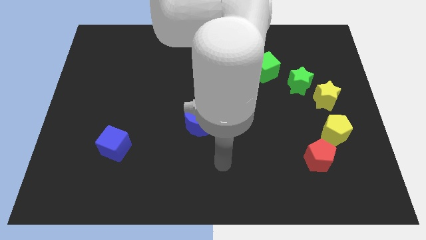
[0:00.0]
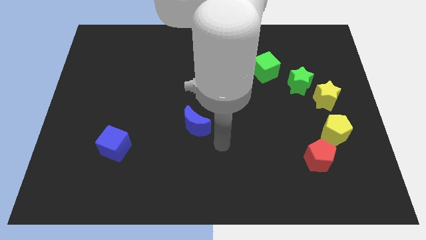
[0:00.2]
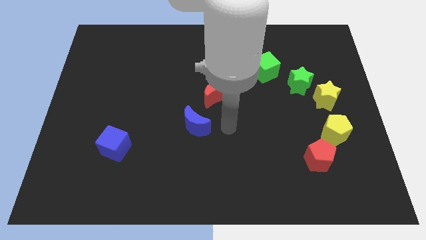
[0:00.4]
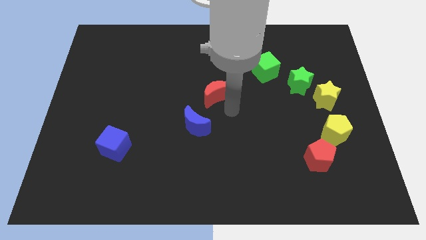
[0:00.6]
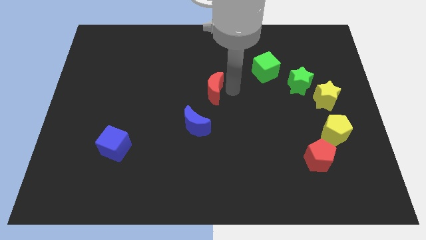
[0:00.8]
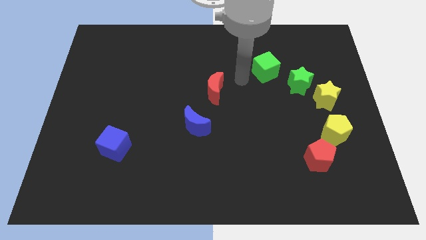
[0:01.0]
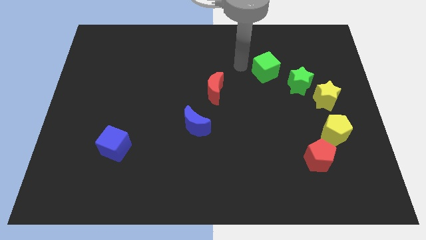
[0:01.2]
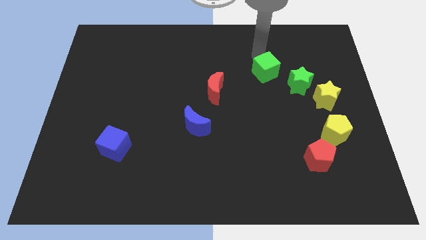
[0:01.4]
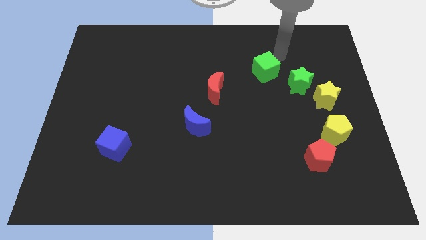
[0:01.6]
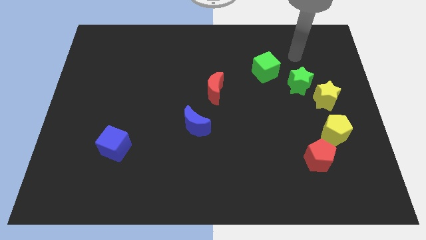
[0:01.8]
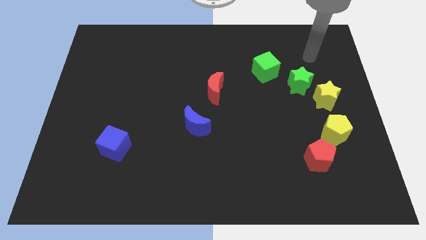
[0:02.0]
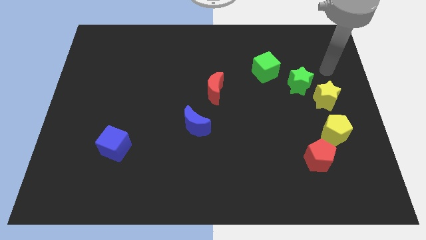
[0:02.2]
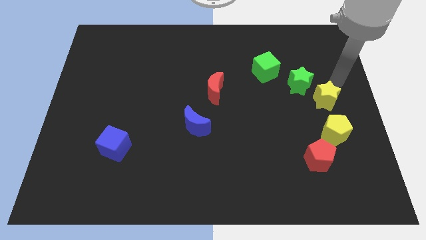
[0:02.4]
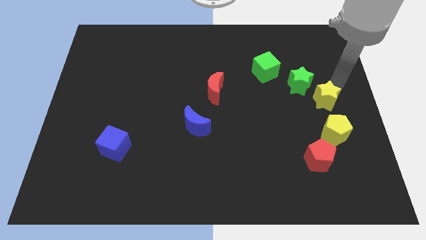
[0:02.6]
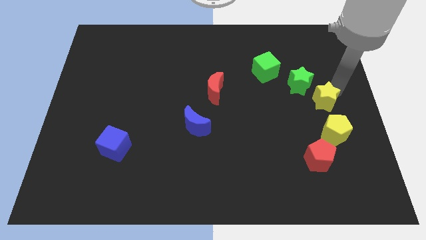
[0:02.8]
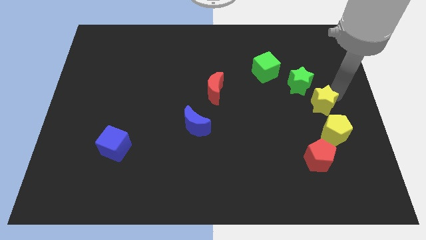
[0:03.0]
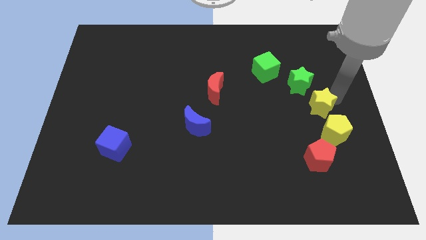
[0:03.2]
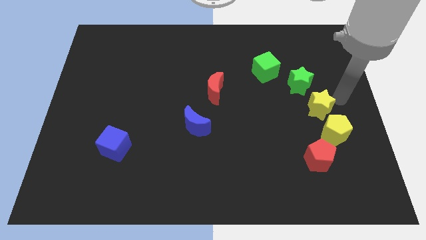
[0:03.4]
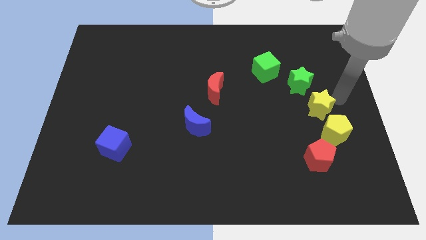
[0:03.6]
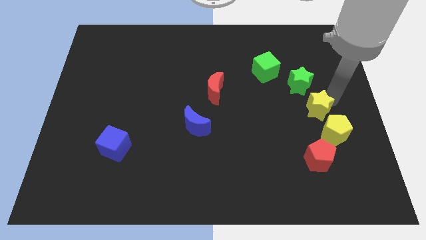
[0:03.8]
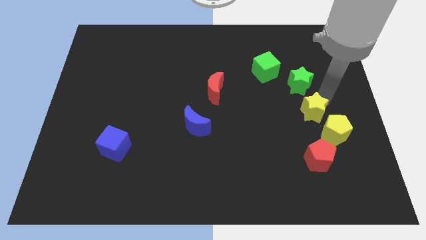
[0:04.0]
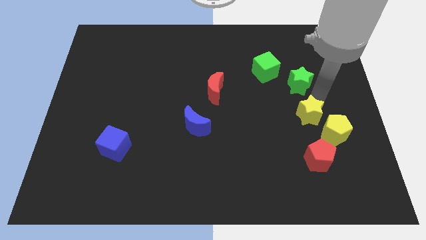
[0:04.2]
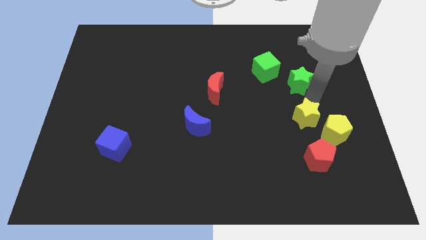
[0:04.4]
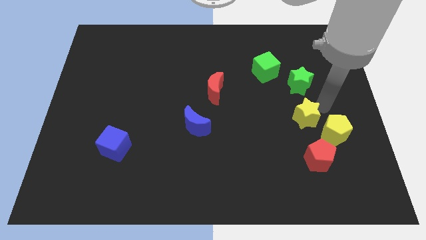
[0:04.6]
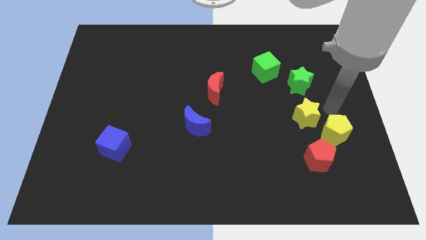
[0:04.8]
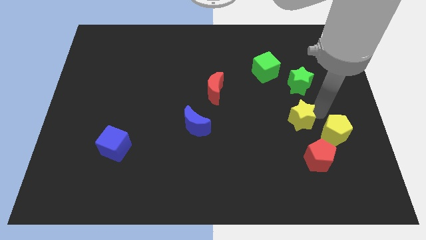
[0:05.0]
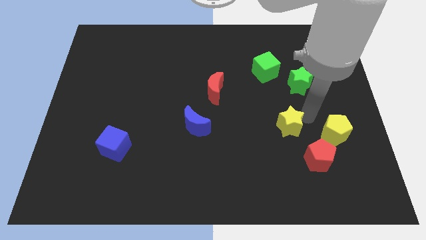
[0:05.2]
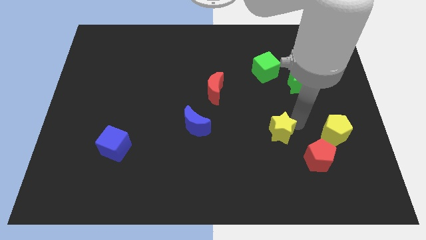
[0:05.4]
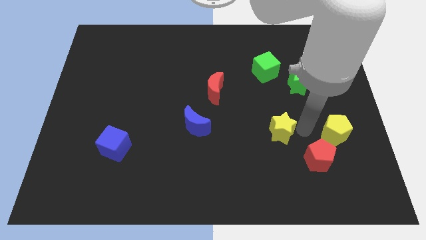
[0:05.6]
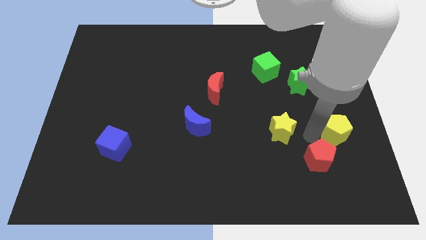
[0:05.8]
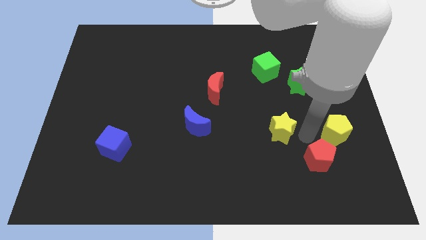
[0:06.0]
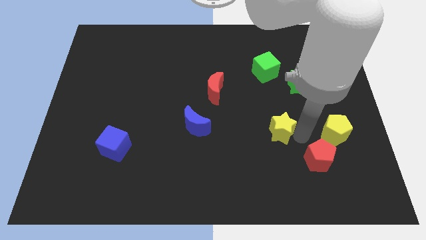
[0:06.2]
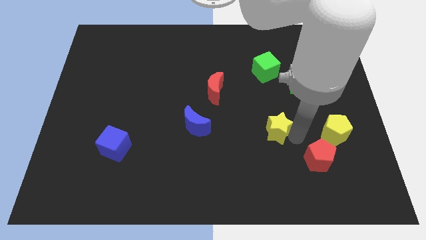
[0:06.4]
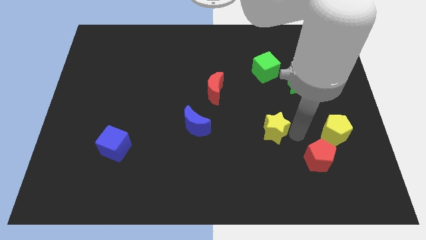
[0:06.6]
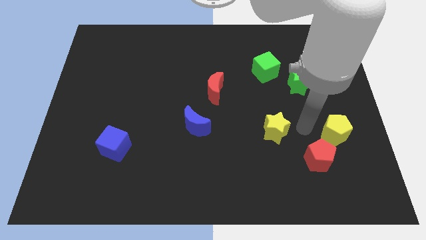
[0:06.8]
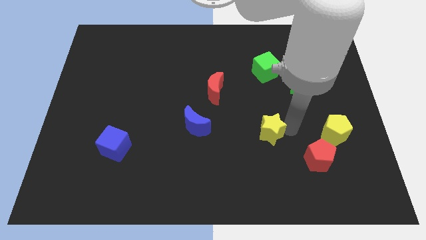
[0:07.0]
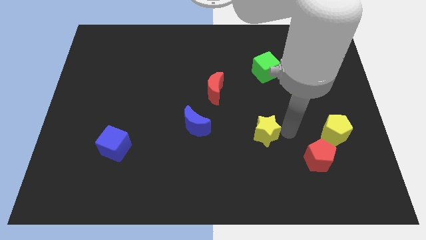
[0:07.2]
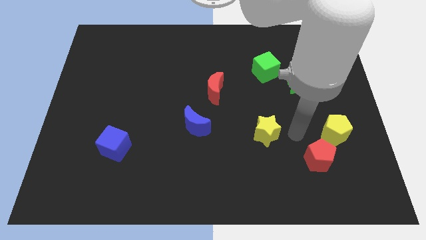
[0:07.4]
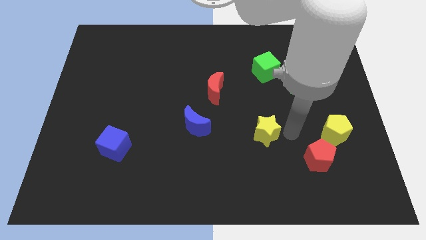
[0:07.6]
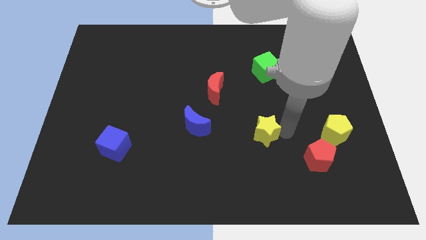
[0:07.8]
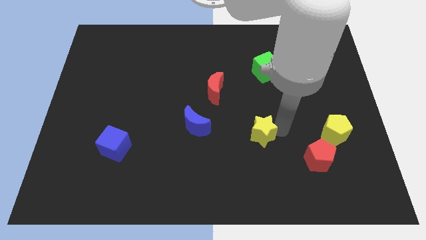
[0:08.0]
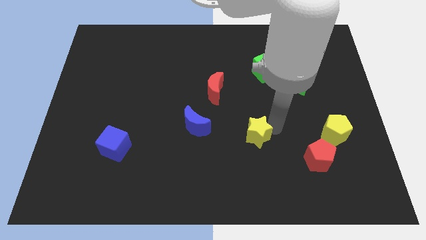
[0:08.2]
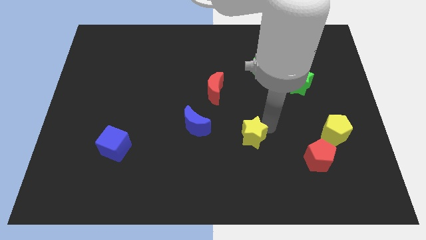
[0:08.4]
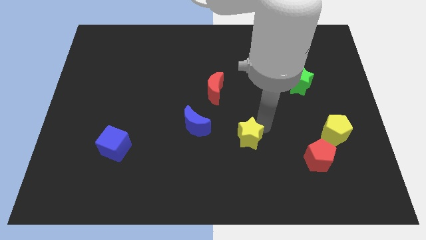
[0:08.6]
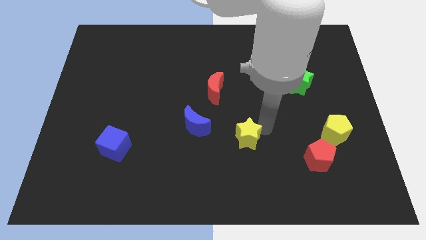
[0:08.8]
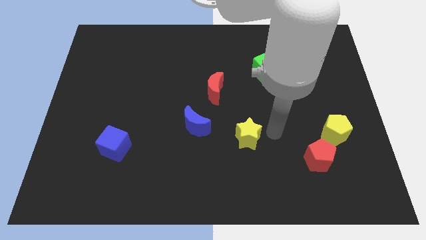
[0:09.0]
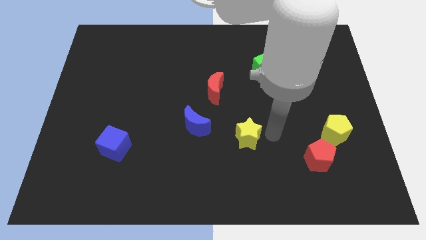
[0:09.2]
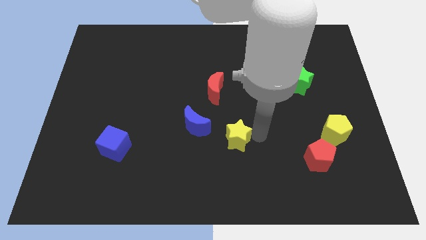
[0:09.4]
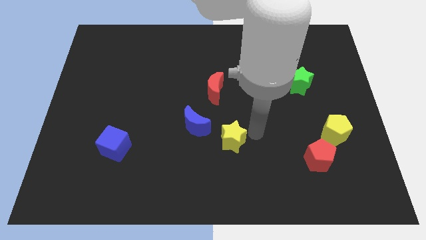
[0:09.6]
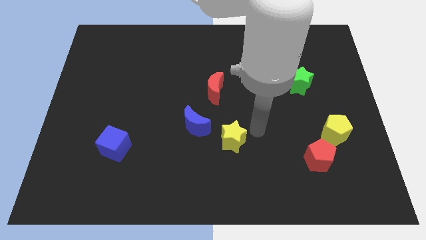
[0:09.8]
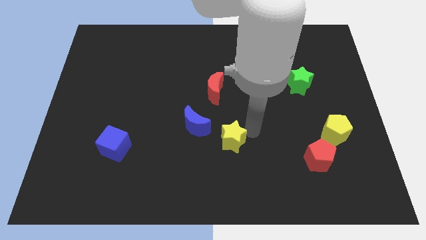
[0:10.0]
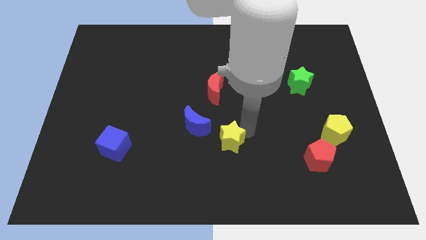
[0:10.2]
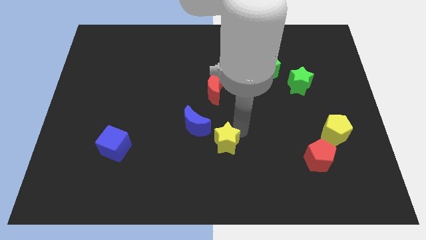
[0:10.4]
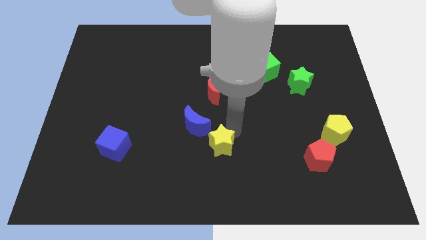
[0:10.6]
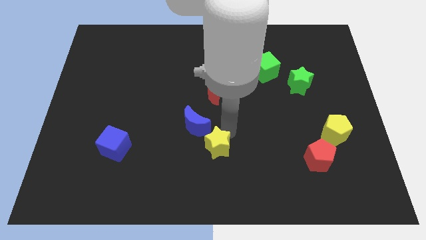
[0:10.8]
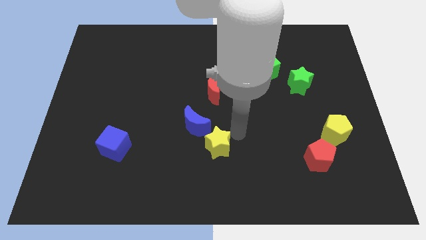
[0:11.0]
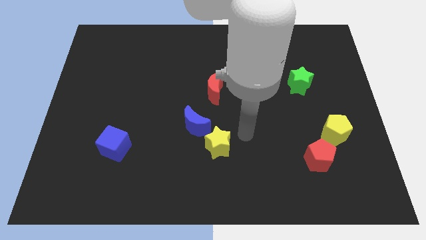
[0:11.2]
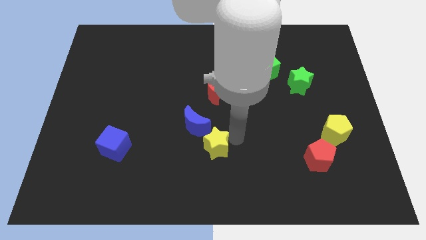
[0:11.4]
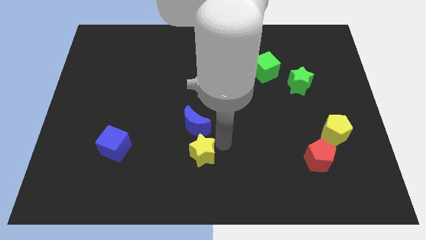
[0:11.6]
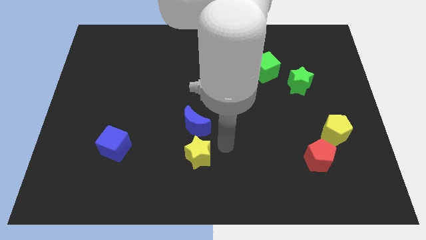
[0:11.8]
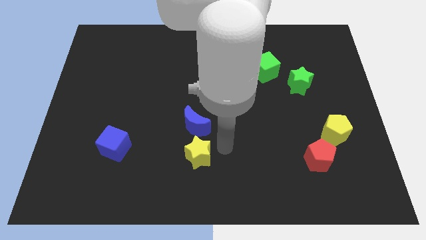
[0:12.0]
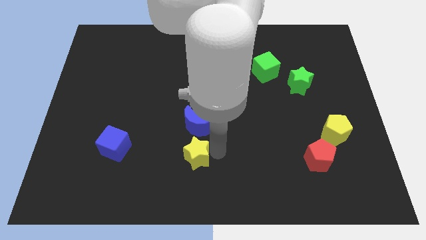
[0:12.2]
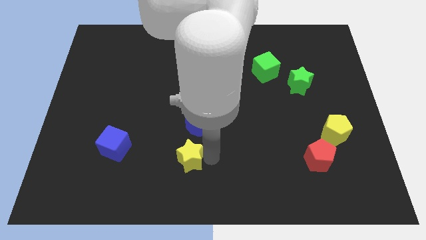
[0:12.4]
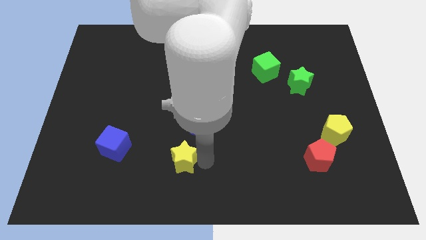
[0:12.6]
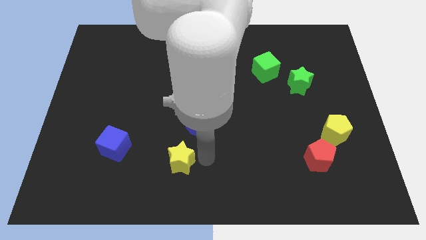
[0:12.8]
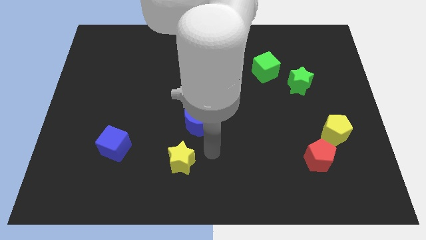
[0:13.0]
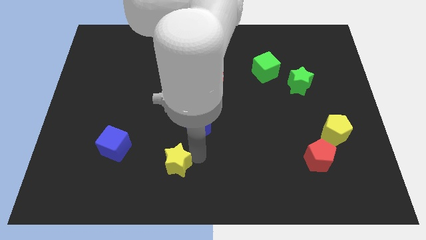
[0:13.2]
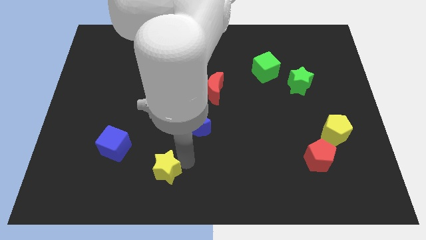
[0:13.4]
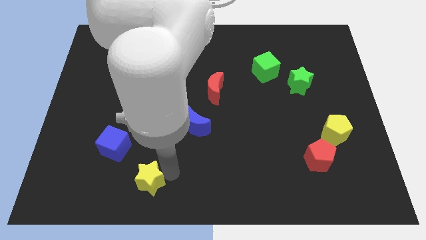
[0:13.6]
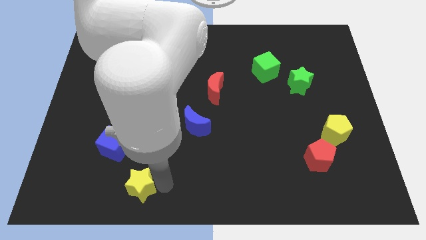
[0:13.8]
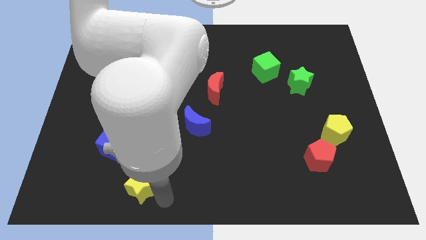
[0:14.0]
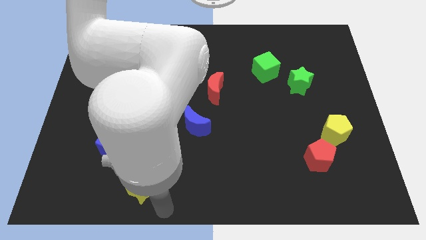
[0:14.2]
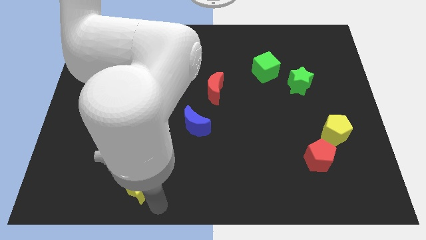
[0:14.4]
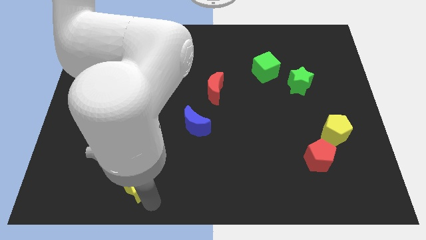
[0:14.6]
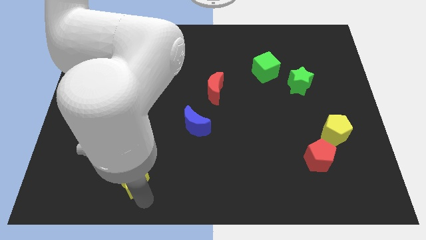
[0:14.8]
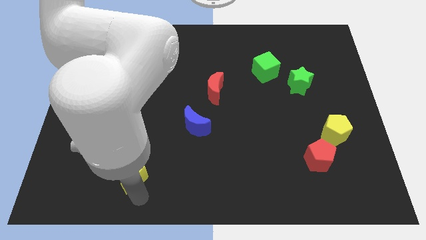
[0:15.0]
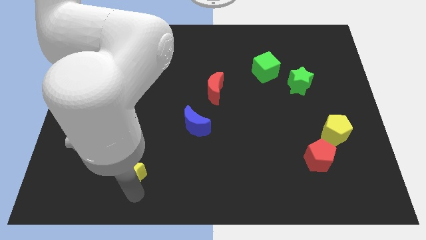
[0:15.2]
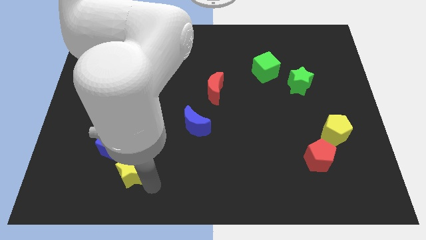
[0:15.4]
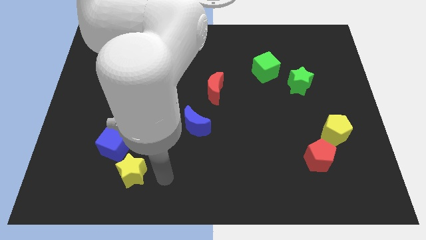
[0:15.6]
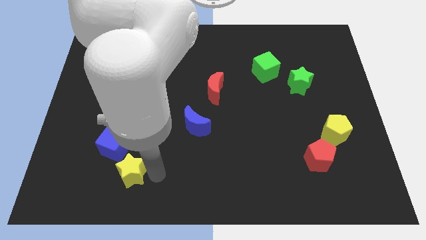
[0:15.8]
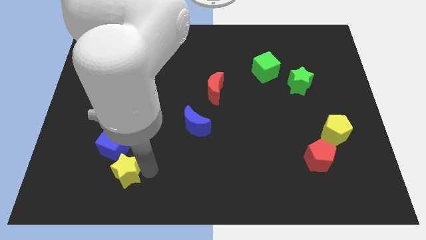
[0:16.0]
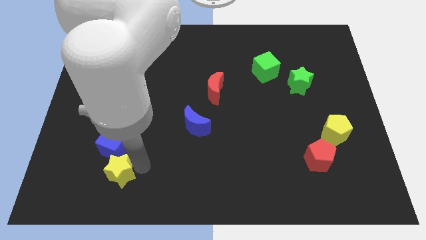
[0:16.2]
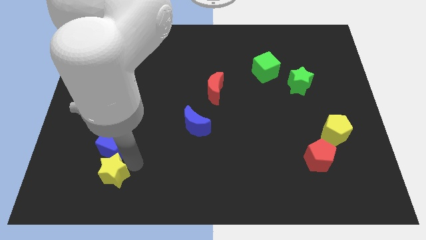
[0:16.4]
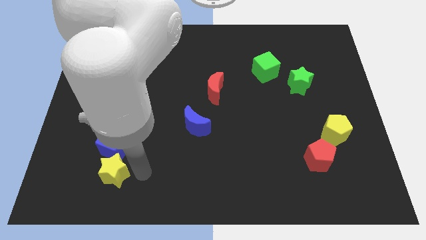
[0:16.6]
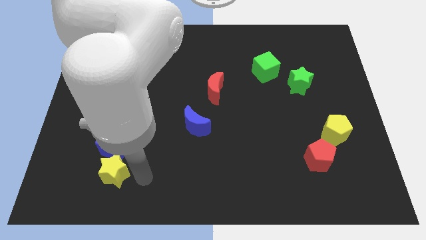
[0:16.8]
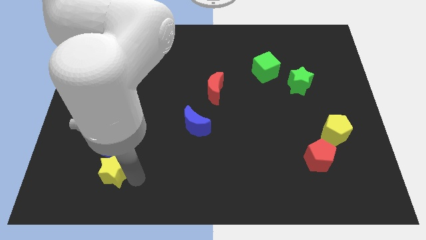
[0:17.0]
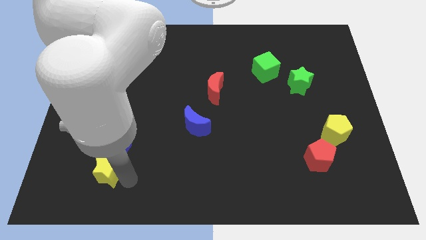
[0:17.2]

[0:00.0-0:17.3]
put the yellow star to the bottom left of the blue cube
